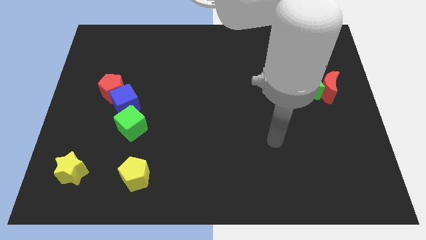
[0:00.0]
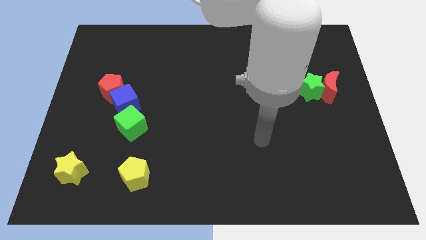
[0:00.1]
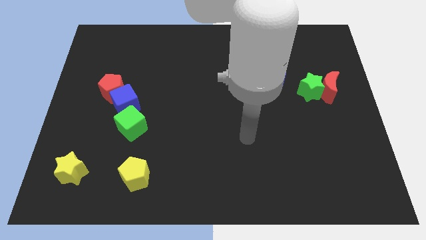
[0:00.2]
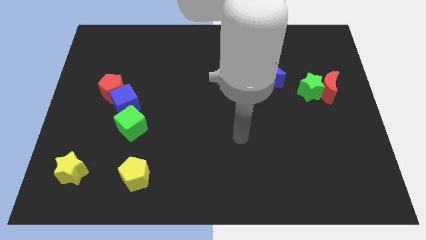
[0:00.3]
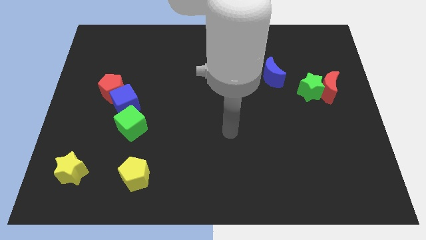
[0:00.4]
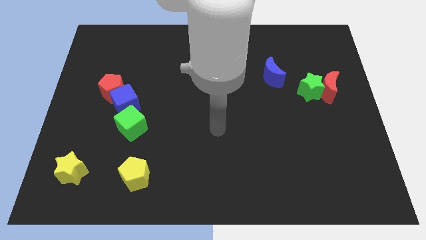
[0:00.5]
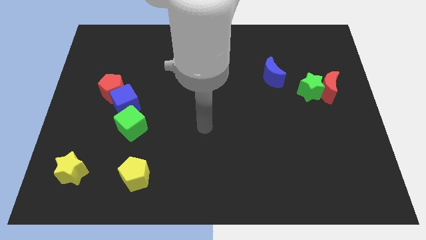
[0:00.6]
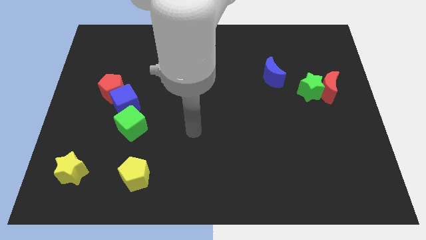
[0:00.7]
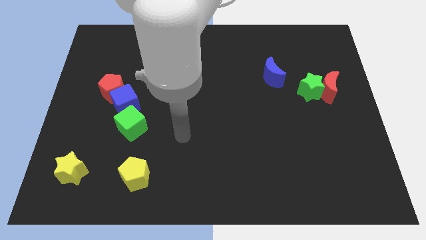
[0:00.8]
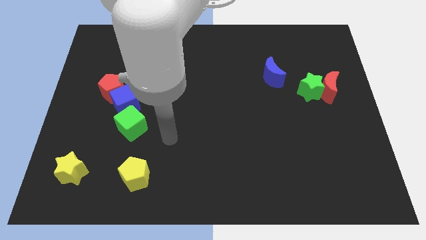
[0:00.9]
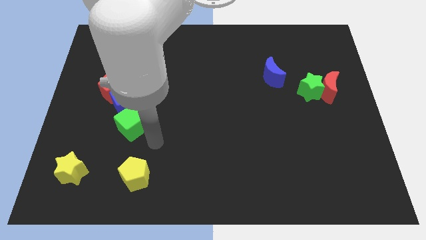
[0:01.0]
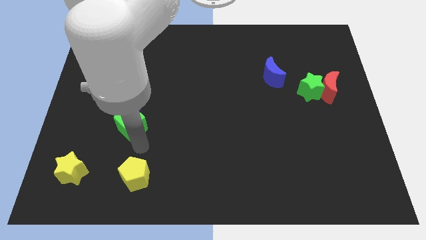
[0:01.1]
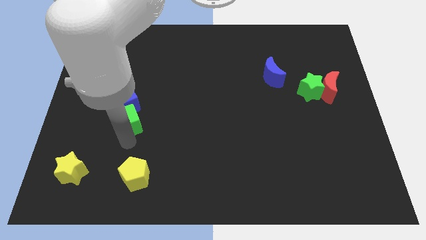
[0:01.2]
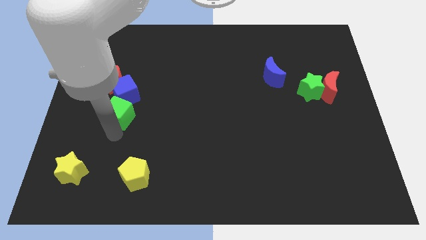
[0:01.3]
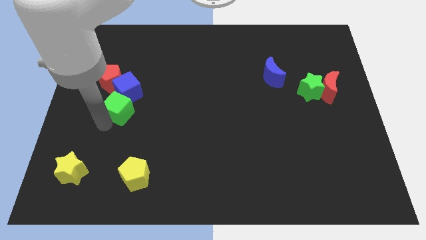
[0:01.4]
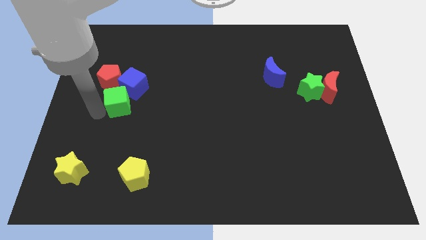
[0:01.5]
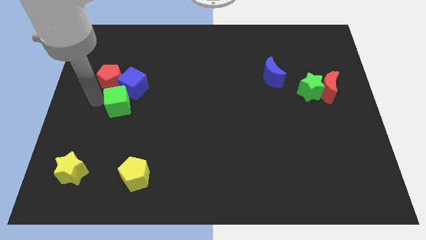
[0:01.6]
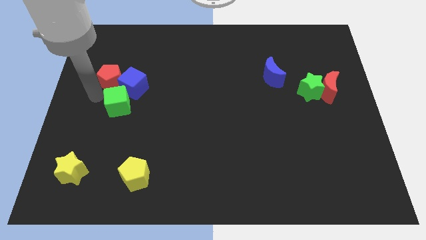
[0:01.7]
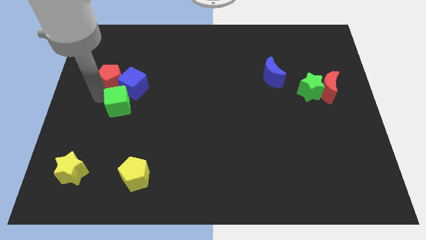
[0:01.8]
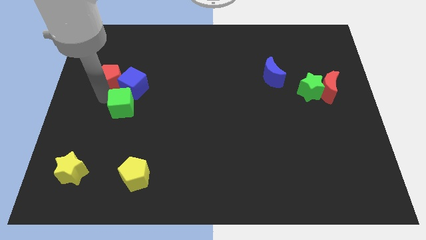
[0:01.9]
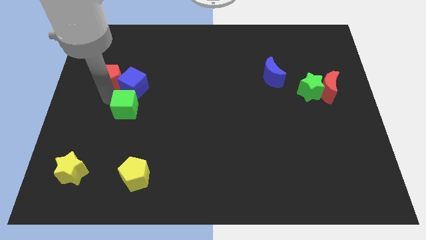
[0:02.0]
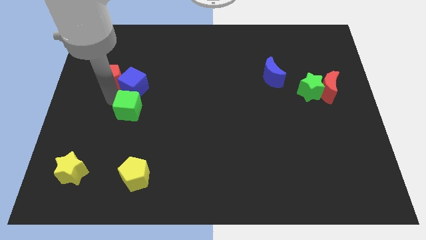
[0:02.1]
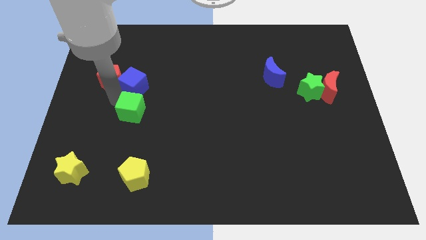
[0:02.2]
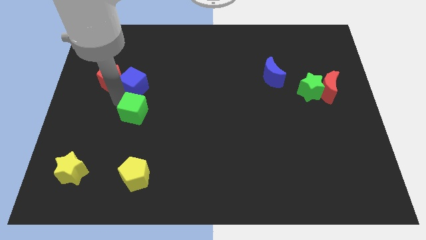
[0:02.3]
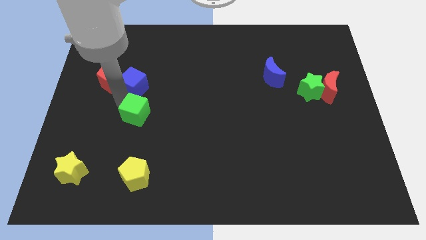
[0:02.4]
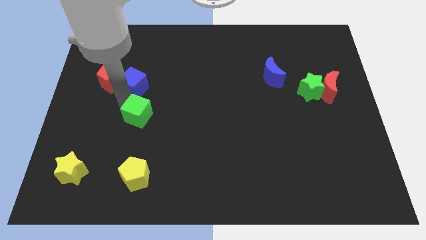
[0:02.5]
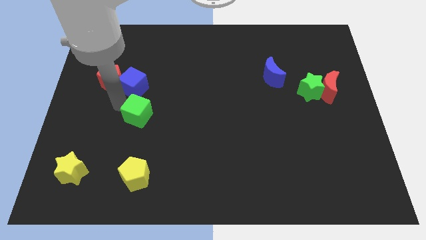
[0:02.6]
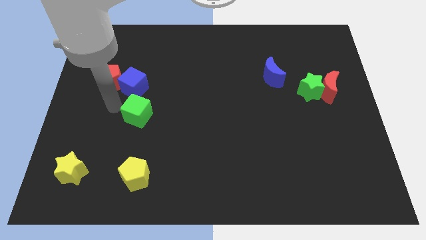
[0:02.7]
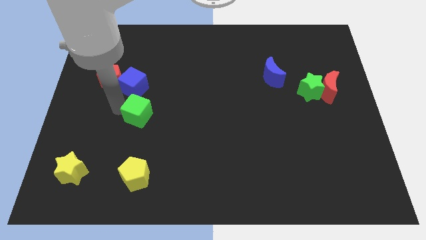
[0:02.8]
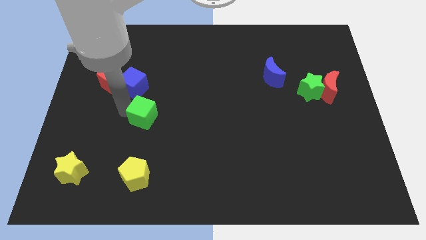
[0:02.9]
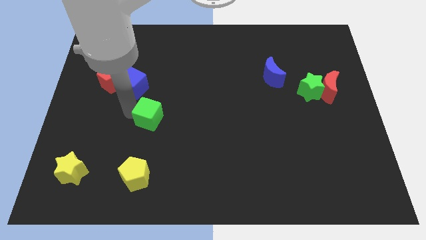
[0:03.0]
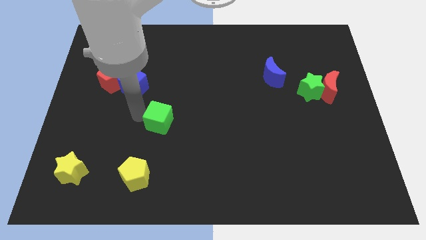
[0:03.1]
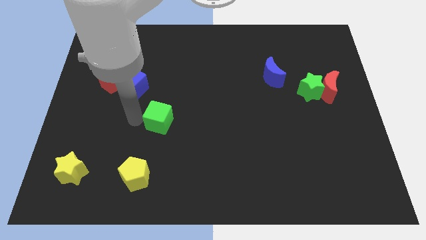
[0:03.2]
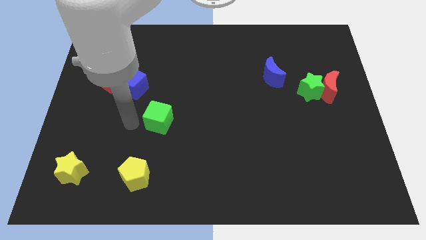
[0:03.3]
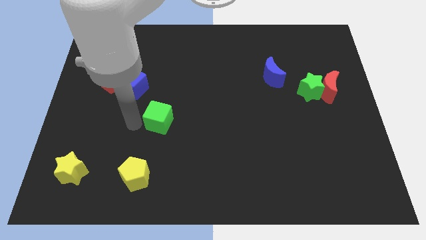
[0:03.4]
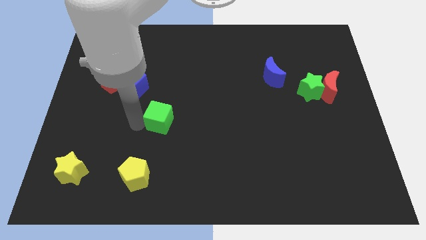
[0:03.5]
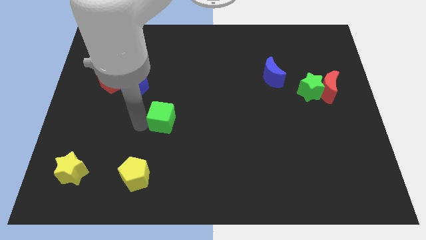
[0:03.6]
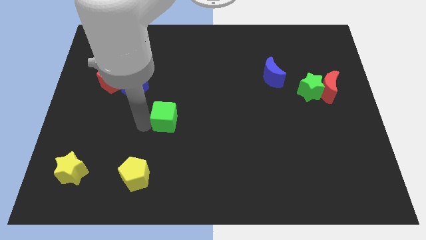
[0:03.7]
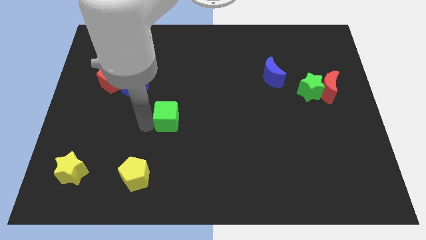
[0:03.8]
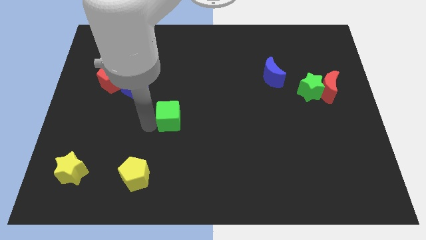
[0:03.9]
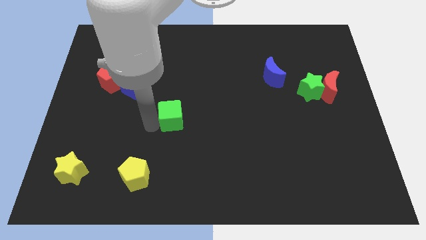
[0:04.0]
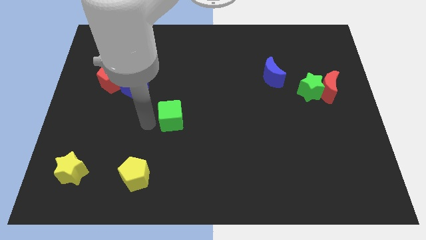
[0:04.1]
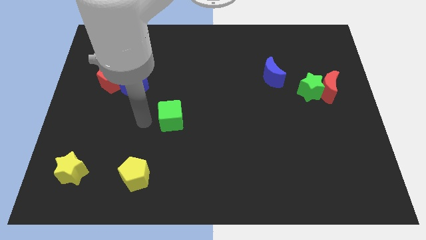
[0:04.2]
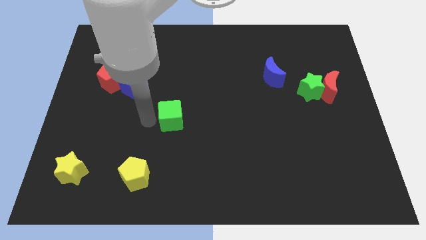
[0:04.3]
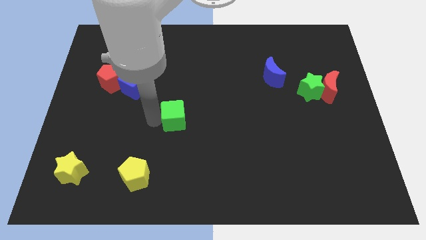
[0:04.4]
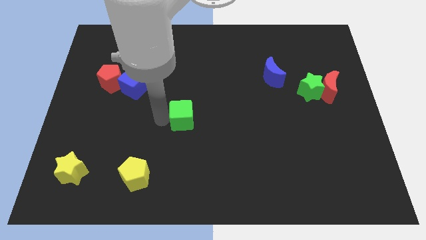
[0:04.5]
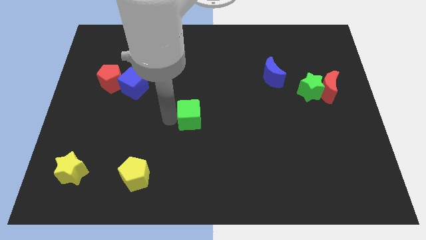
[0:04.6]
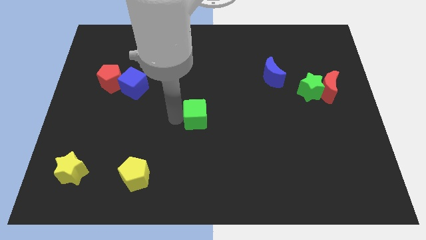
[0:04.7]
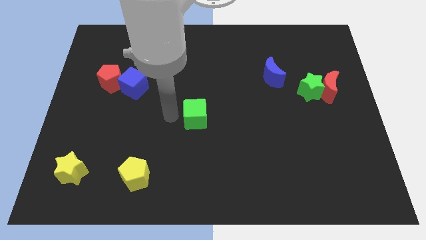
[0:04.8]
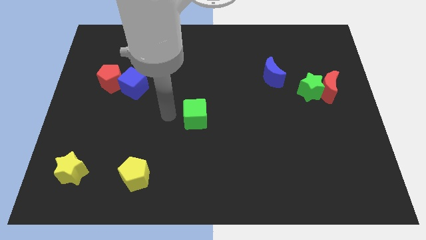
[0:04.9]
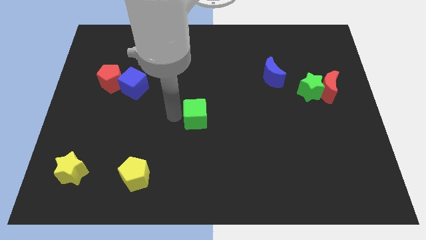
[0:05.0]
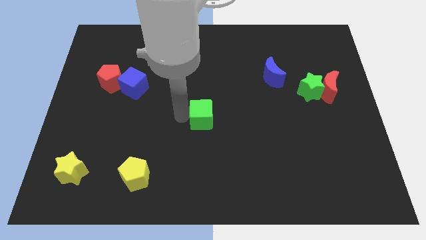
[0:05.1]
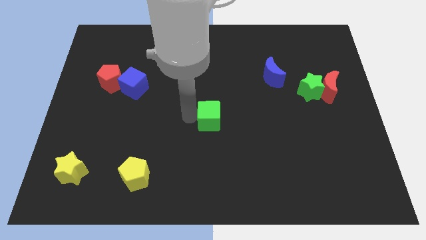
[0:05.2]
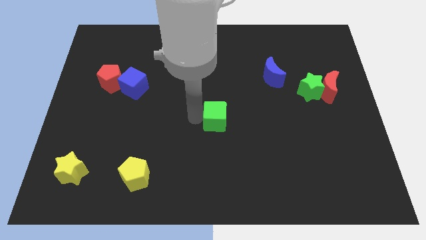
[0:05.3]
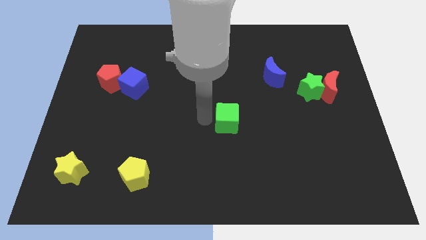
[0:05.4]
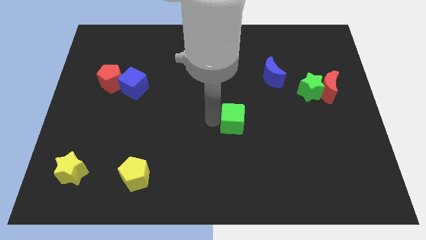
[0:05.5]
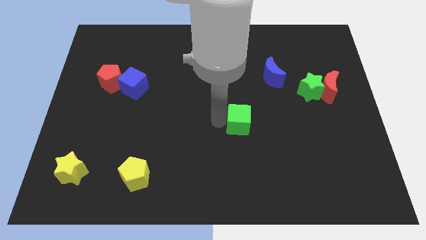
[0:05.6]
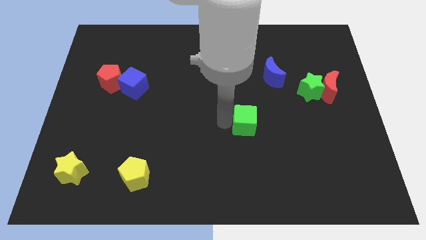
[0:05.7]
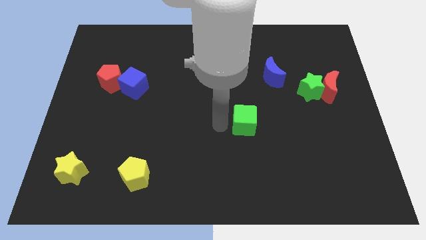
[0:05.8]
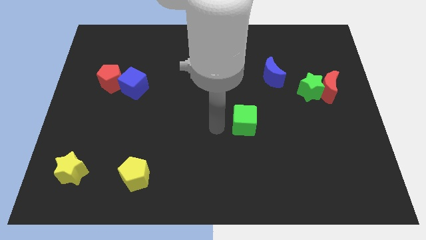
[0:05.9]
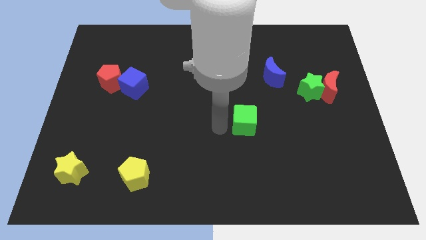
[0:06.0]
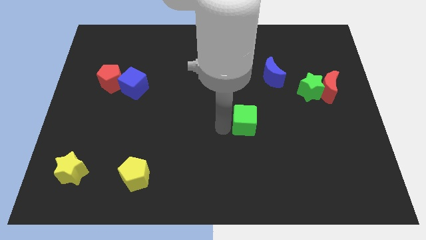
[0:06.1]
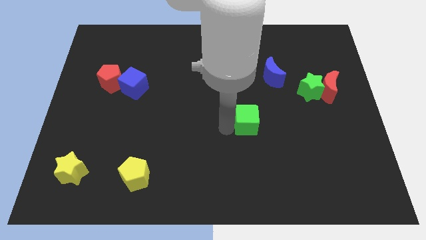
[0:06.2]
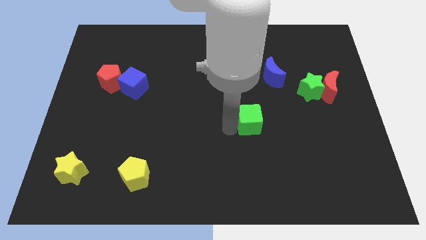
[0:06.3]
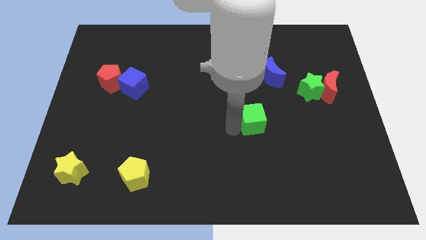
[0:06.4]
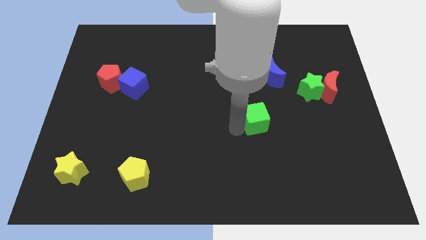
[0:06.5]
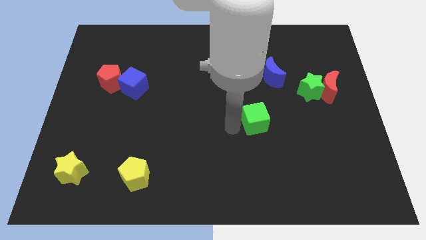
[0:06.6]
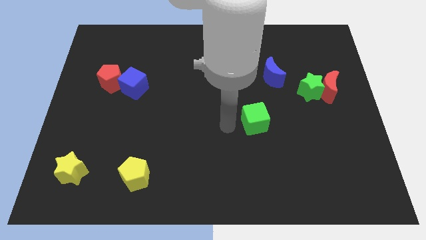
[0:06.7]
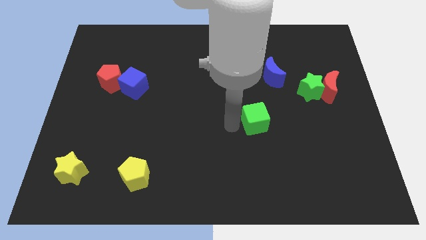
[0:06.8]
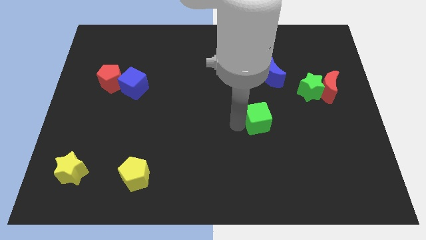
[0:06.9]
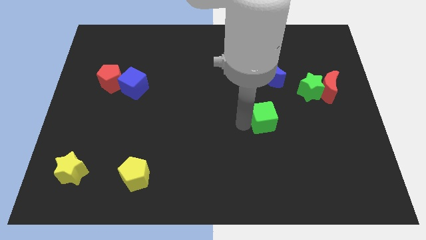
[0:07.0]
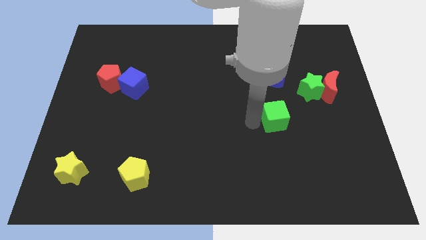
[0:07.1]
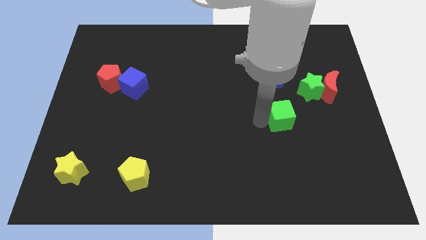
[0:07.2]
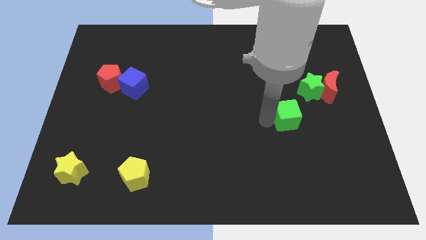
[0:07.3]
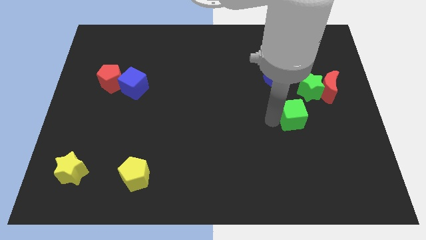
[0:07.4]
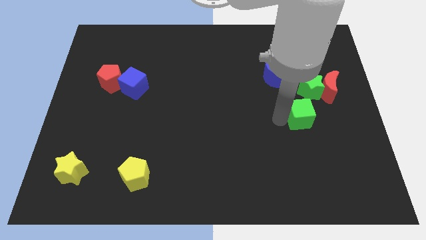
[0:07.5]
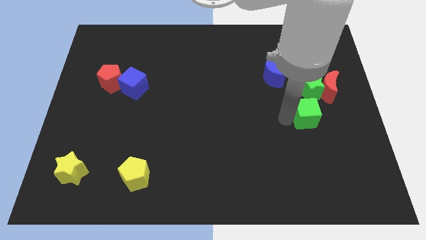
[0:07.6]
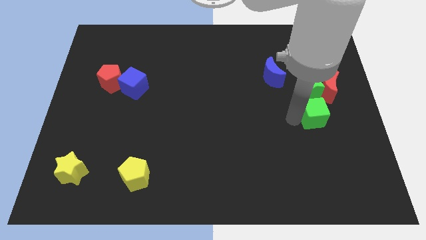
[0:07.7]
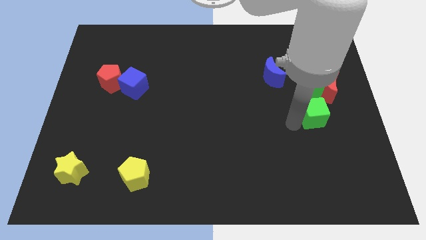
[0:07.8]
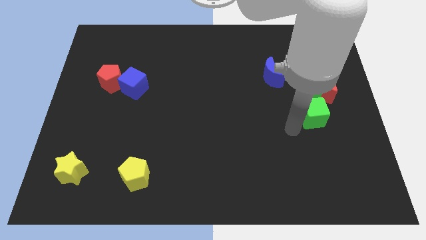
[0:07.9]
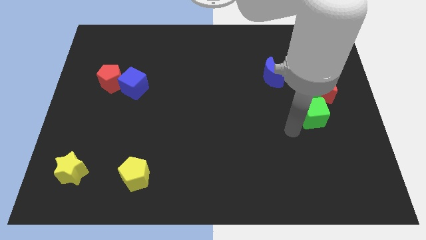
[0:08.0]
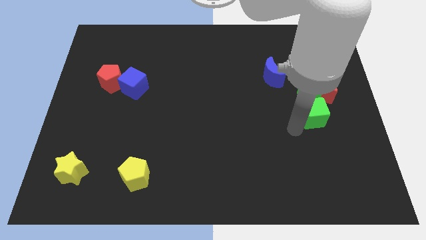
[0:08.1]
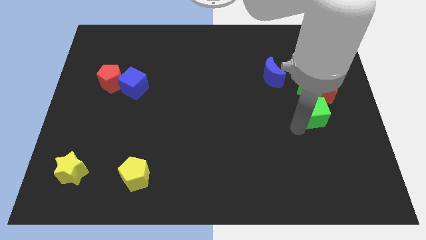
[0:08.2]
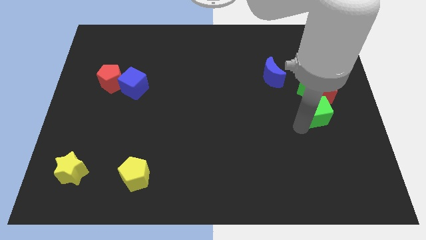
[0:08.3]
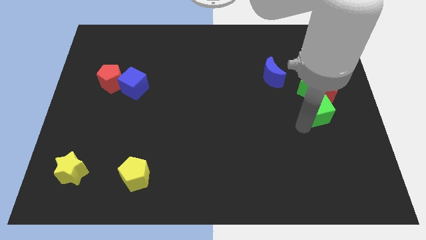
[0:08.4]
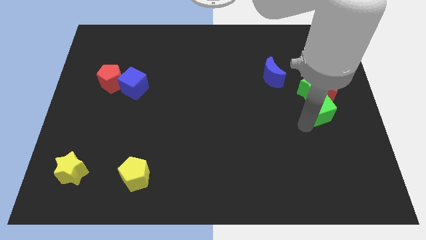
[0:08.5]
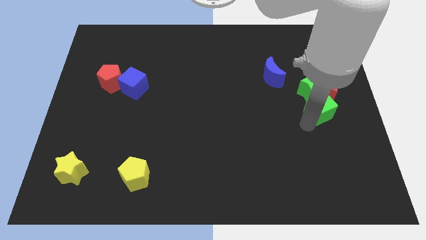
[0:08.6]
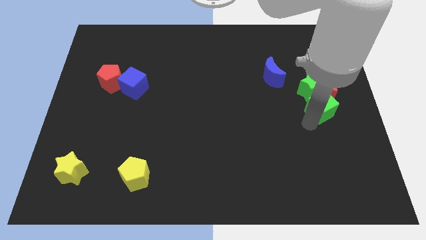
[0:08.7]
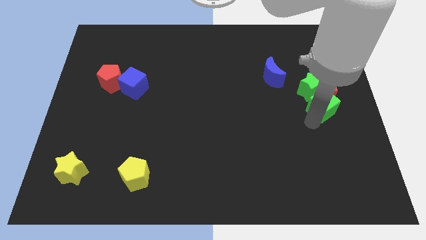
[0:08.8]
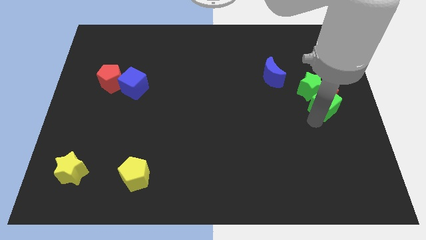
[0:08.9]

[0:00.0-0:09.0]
slide the green cube to the red moon
